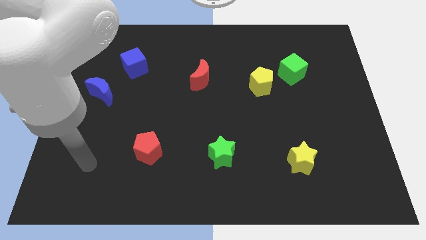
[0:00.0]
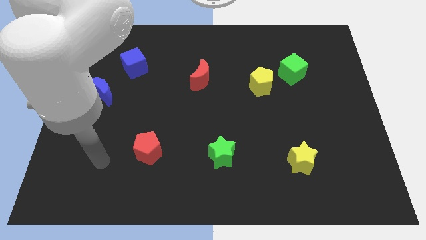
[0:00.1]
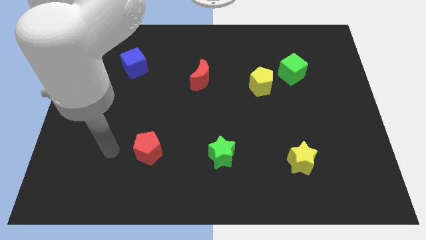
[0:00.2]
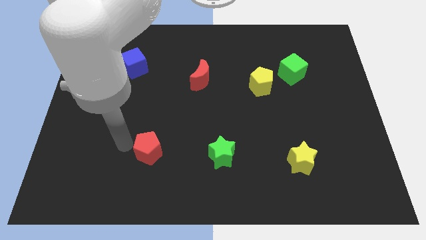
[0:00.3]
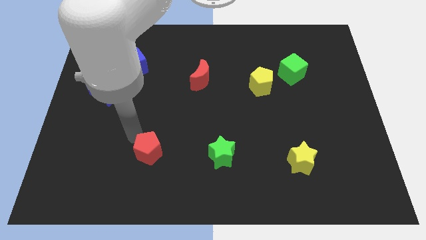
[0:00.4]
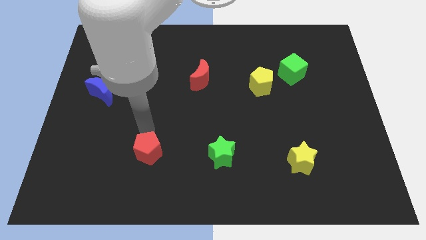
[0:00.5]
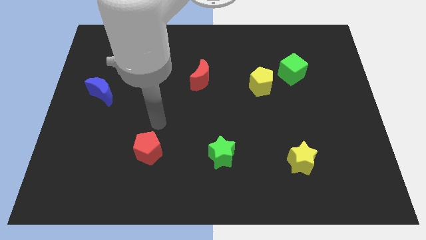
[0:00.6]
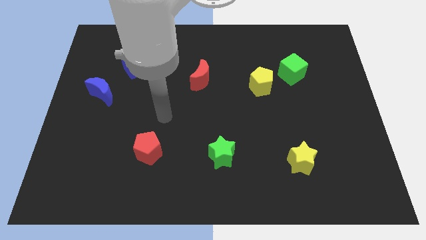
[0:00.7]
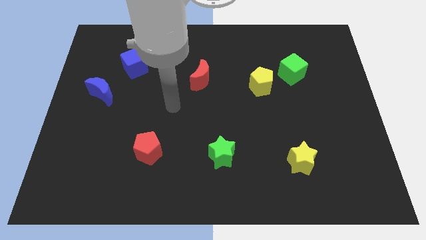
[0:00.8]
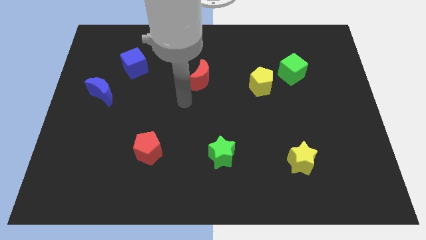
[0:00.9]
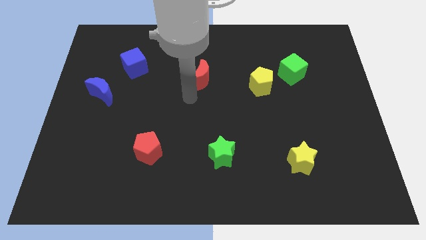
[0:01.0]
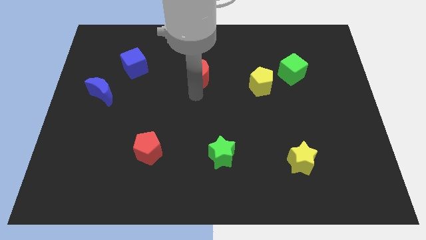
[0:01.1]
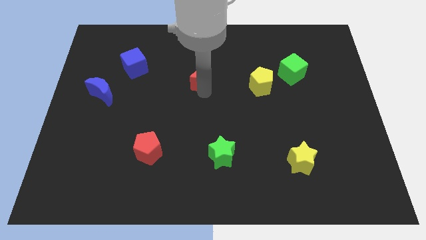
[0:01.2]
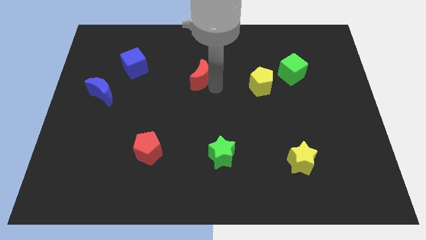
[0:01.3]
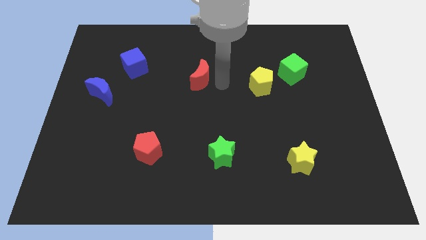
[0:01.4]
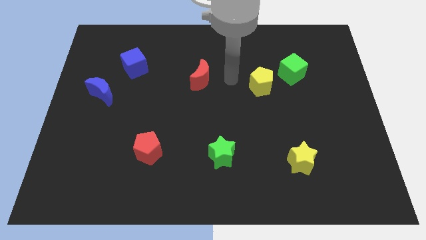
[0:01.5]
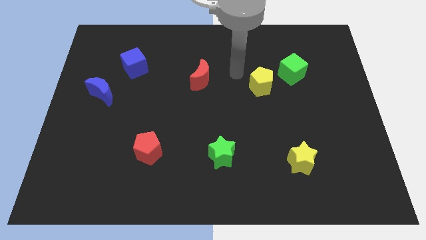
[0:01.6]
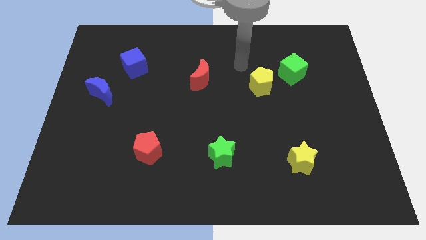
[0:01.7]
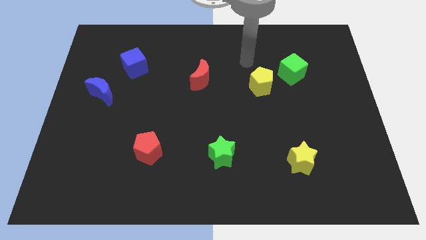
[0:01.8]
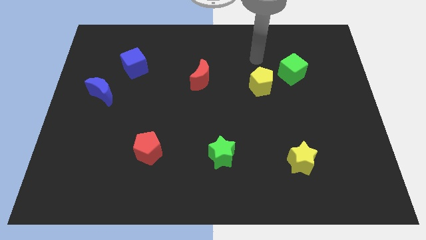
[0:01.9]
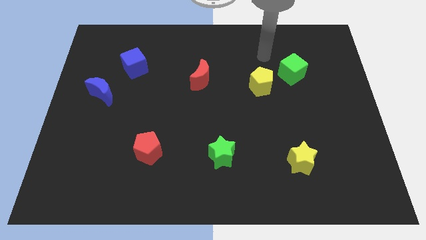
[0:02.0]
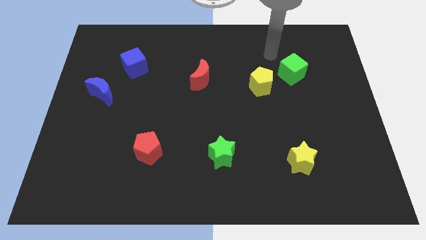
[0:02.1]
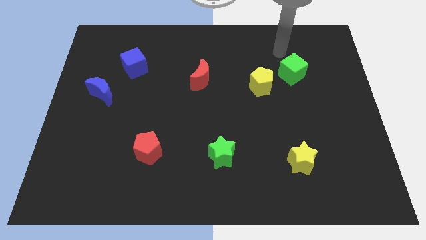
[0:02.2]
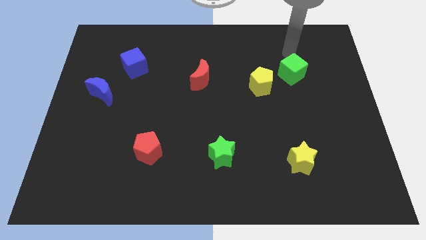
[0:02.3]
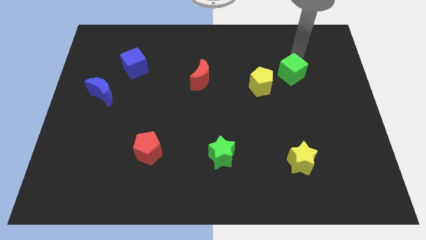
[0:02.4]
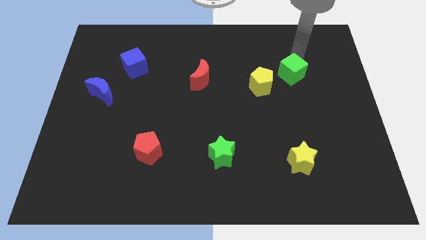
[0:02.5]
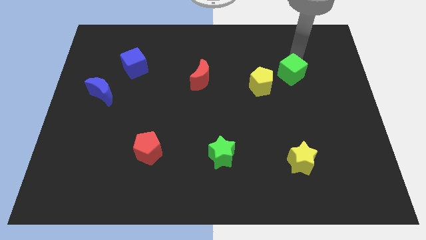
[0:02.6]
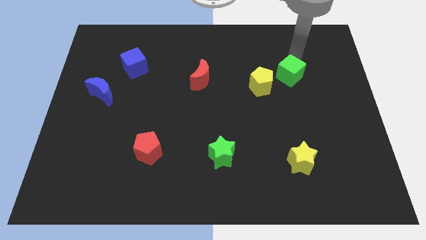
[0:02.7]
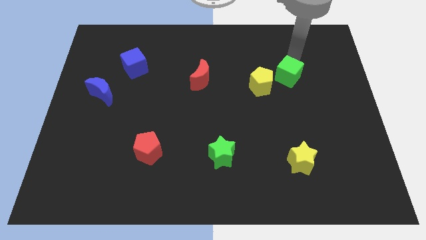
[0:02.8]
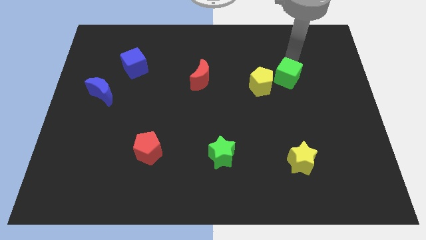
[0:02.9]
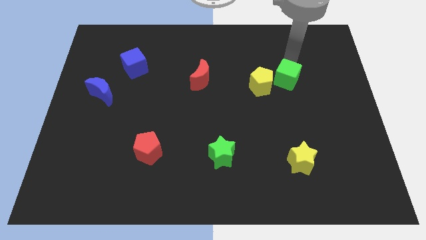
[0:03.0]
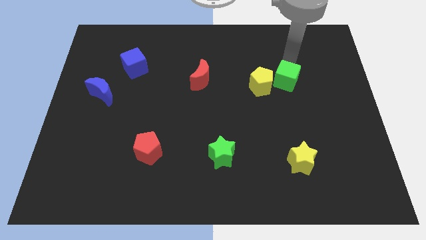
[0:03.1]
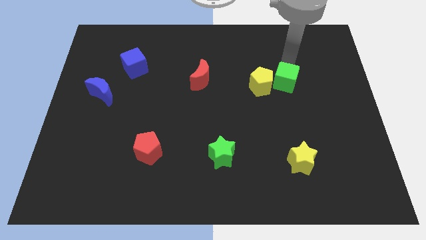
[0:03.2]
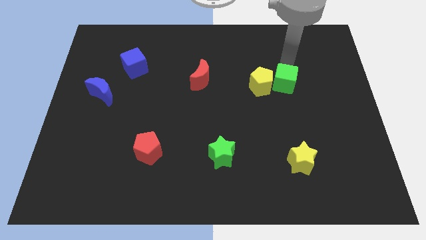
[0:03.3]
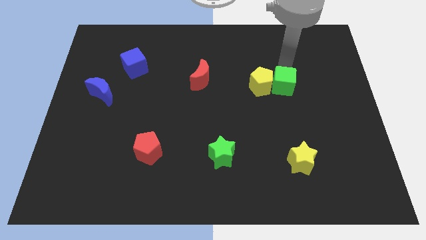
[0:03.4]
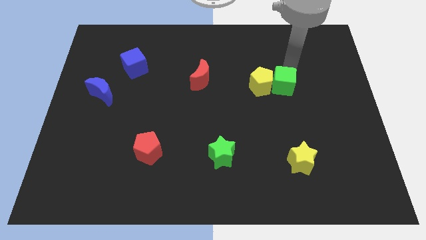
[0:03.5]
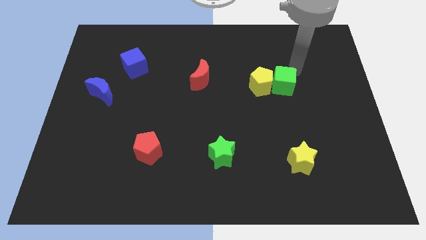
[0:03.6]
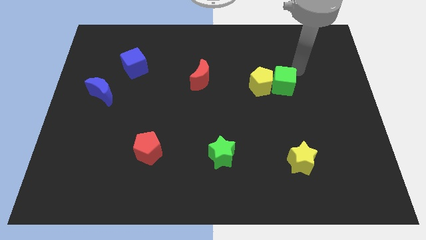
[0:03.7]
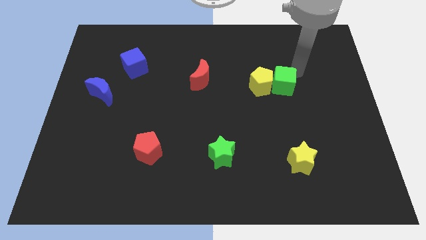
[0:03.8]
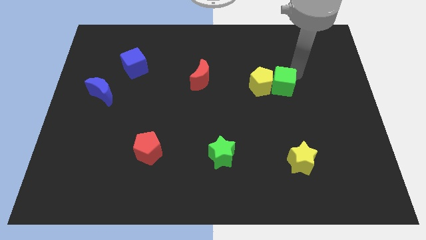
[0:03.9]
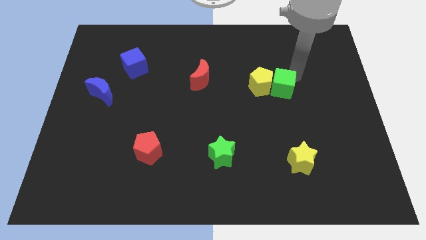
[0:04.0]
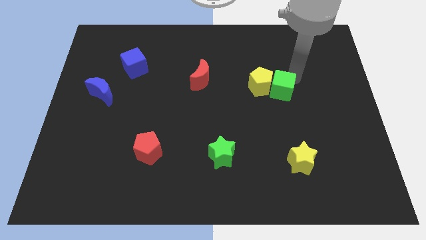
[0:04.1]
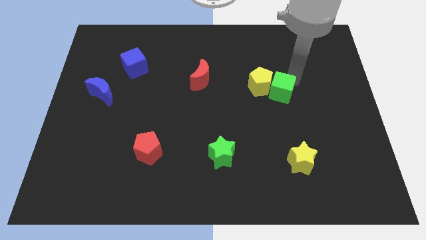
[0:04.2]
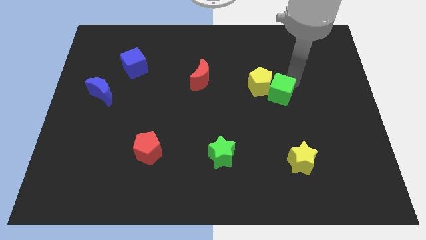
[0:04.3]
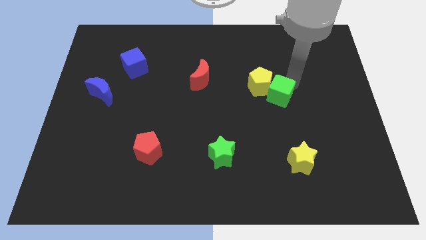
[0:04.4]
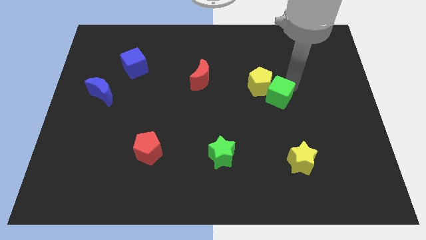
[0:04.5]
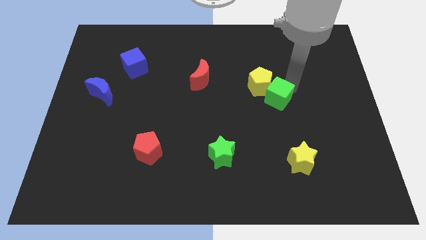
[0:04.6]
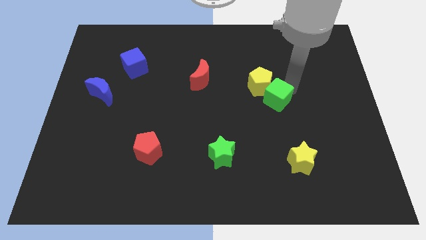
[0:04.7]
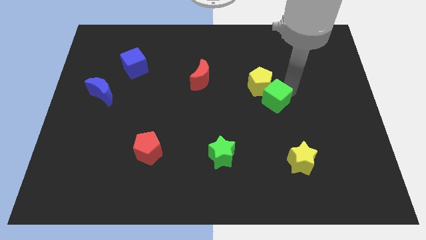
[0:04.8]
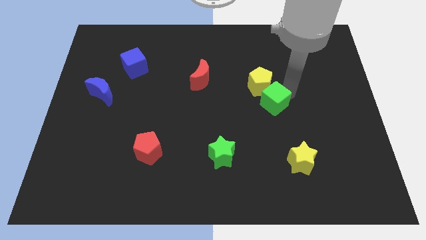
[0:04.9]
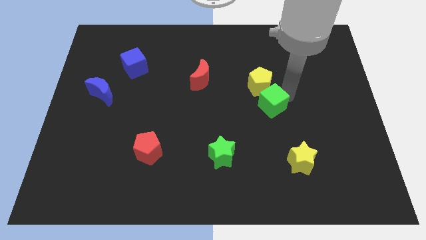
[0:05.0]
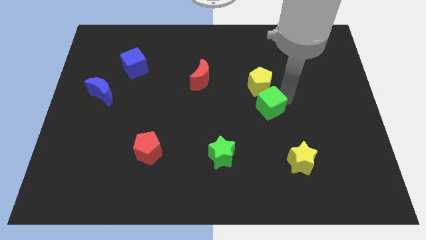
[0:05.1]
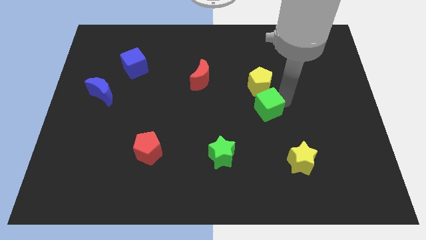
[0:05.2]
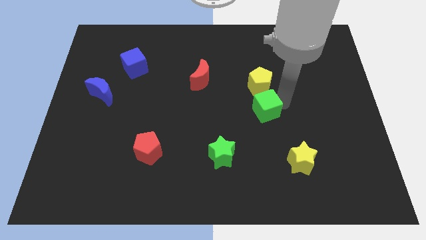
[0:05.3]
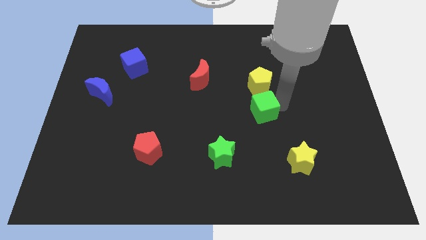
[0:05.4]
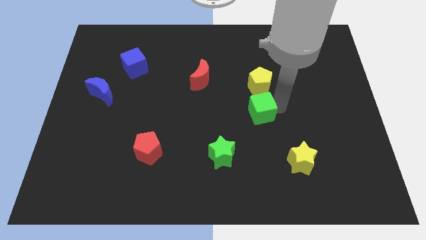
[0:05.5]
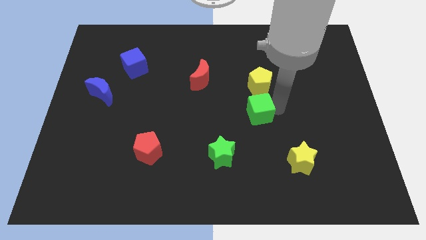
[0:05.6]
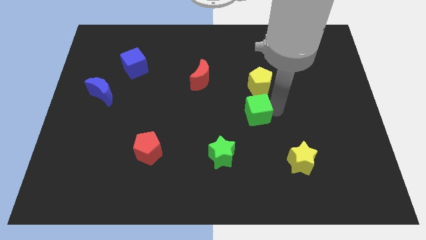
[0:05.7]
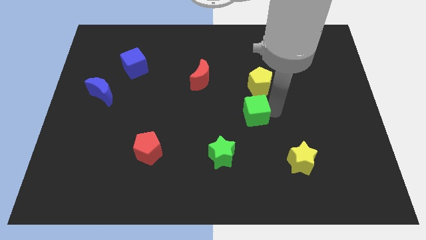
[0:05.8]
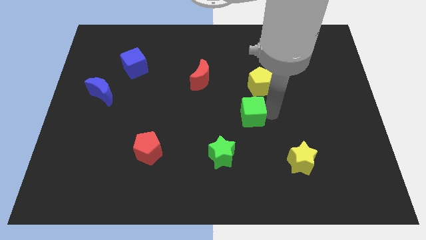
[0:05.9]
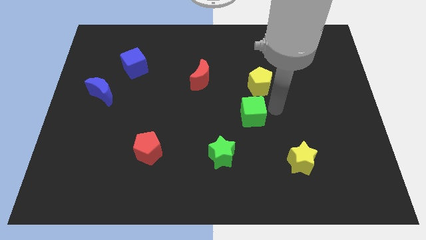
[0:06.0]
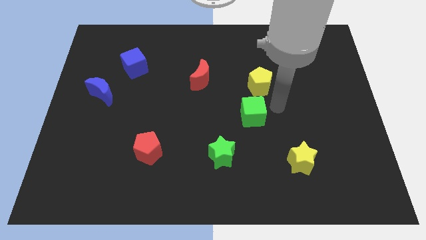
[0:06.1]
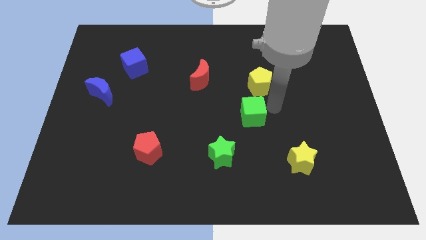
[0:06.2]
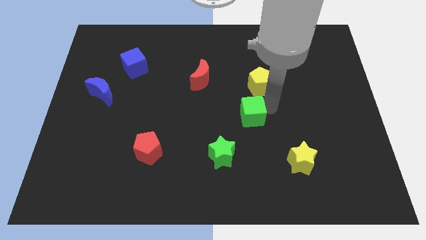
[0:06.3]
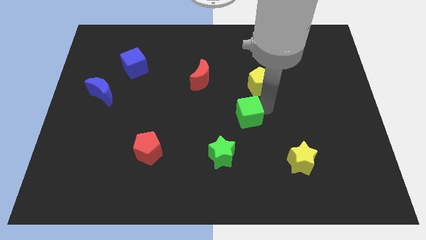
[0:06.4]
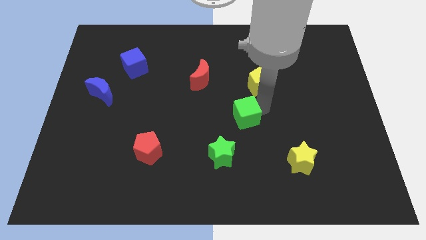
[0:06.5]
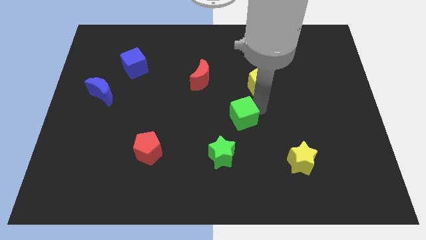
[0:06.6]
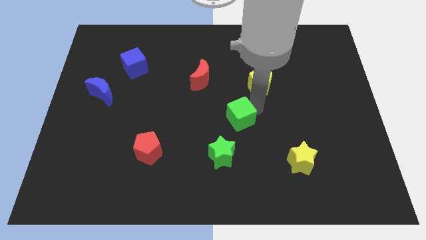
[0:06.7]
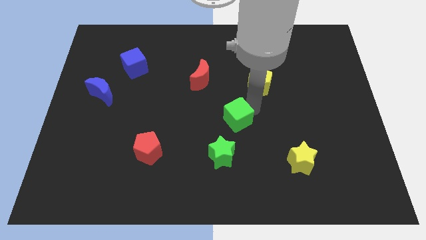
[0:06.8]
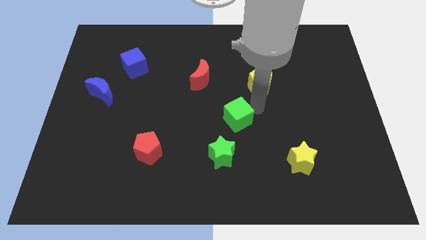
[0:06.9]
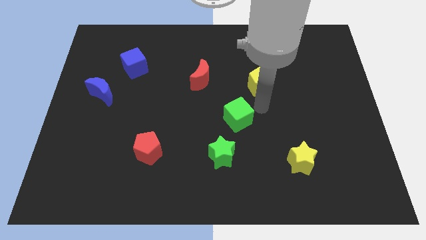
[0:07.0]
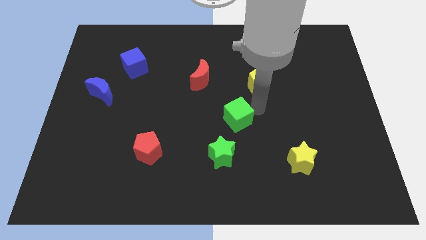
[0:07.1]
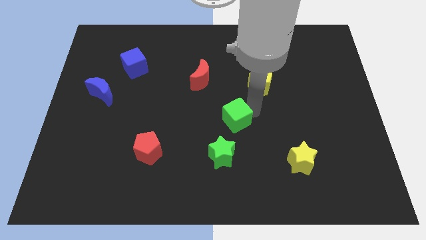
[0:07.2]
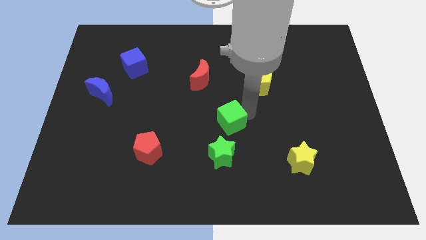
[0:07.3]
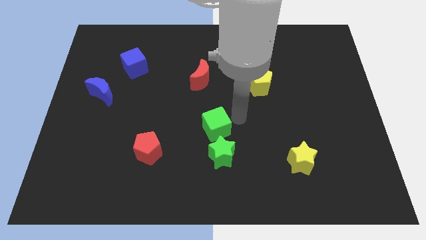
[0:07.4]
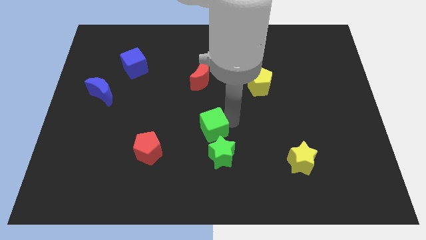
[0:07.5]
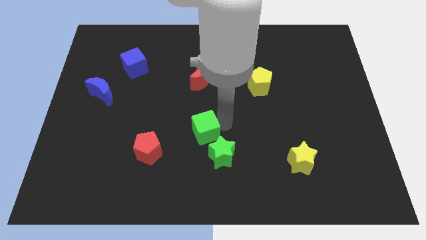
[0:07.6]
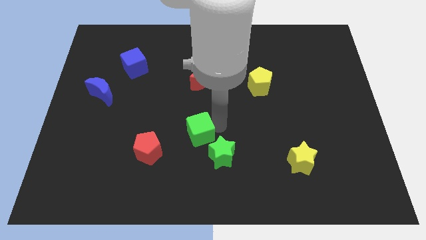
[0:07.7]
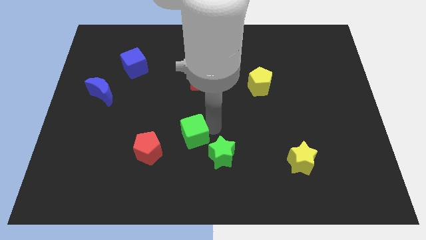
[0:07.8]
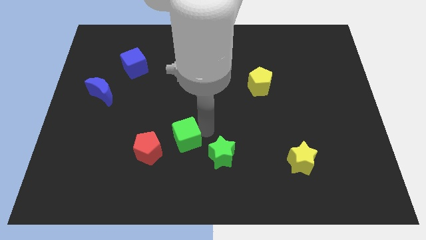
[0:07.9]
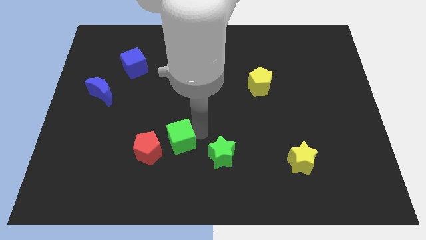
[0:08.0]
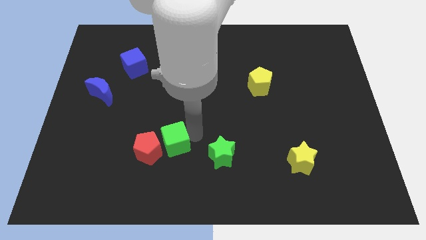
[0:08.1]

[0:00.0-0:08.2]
push the green cube towards the red pentagon
